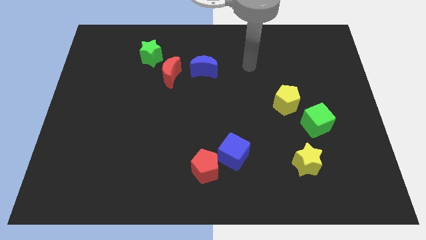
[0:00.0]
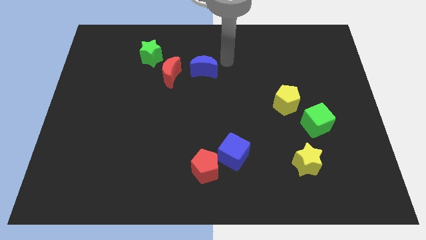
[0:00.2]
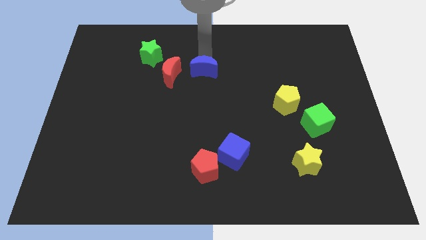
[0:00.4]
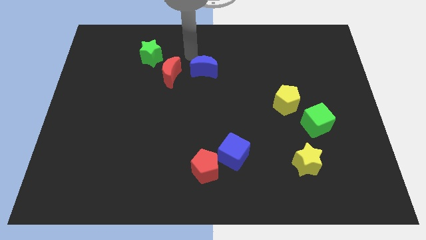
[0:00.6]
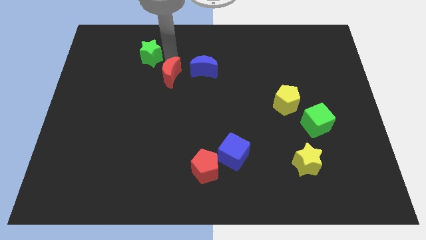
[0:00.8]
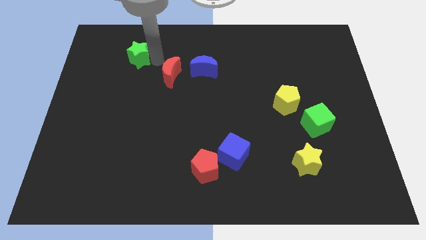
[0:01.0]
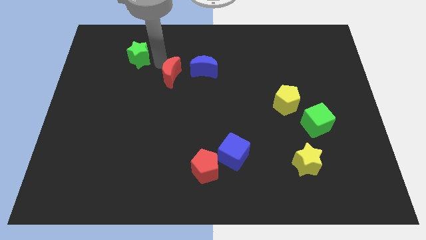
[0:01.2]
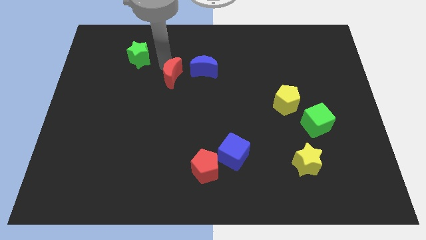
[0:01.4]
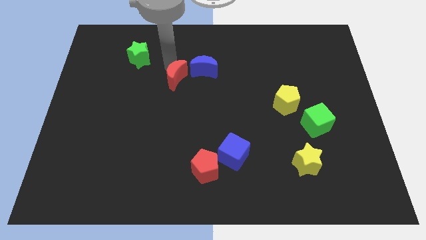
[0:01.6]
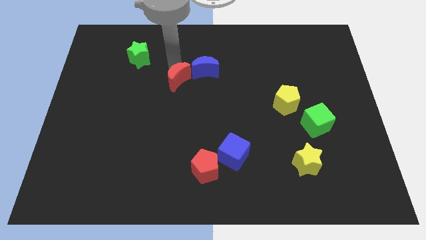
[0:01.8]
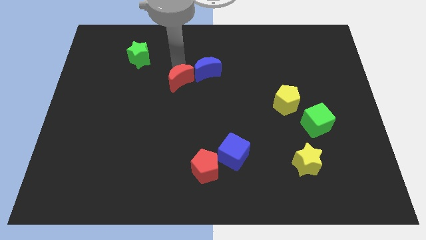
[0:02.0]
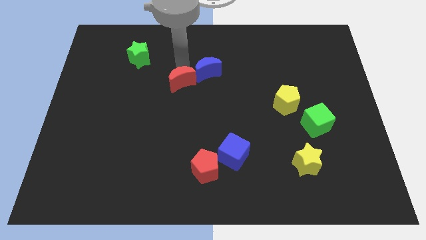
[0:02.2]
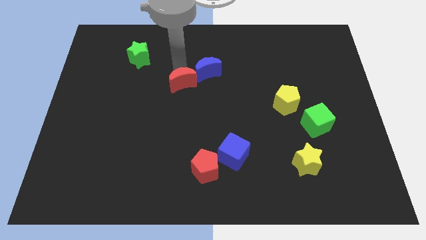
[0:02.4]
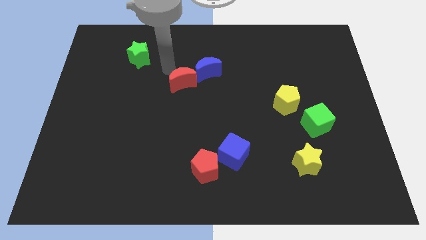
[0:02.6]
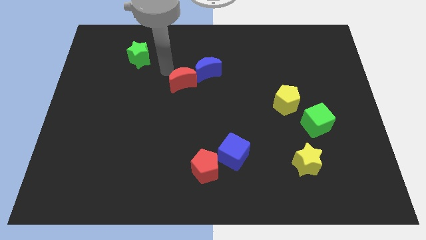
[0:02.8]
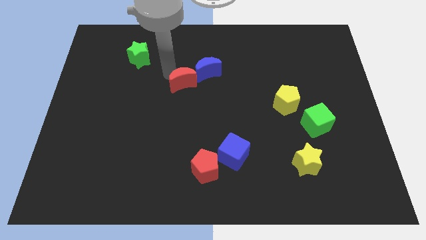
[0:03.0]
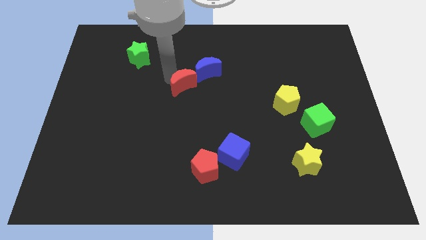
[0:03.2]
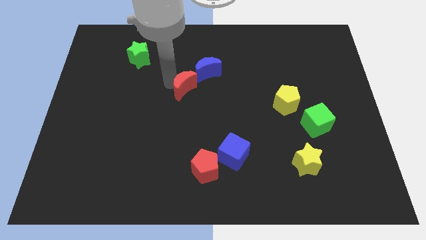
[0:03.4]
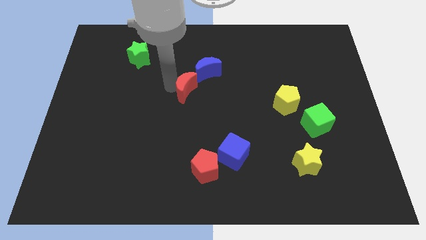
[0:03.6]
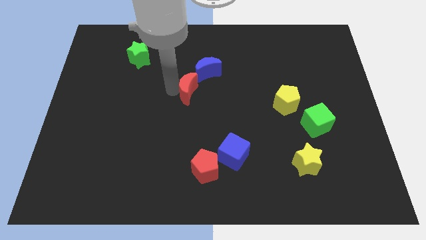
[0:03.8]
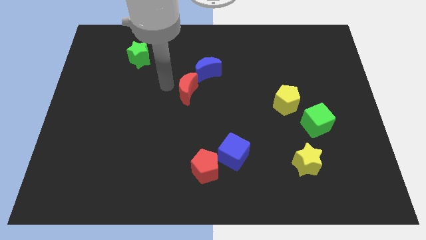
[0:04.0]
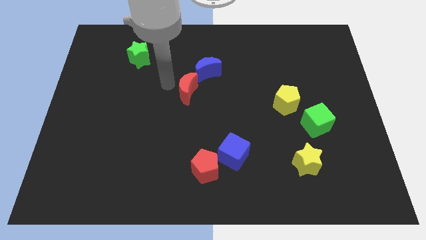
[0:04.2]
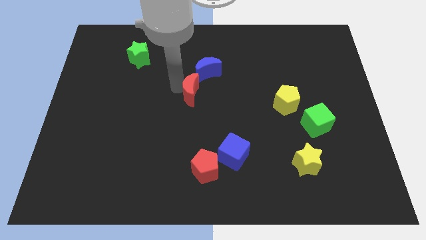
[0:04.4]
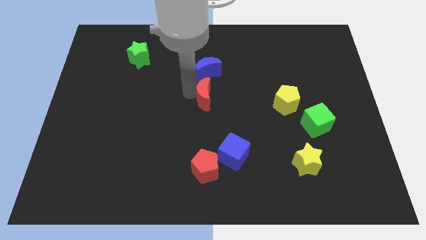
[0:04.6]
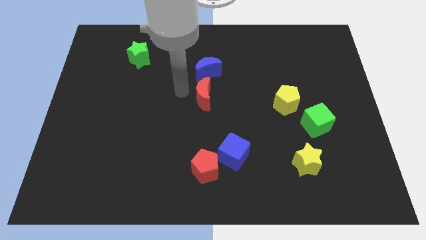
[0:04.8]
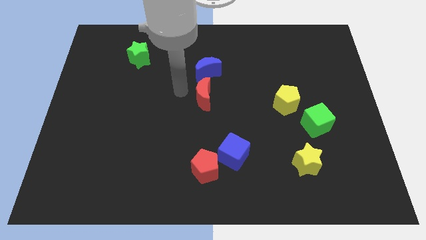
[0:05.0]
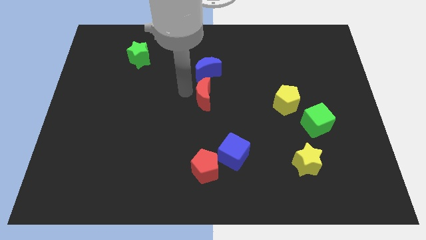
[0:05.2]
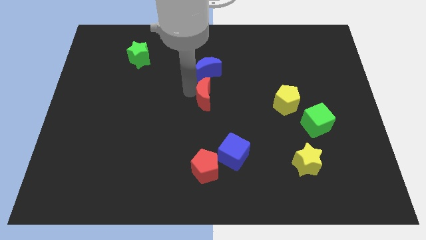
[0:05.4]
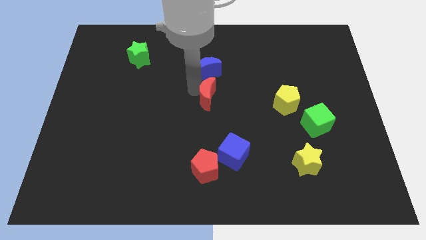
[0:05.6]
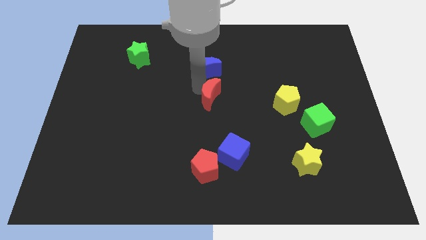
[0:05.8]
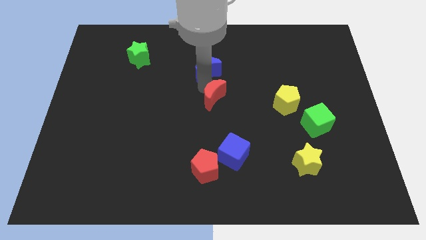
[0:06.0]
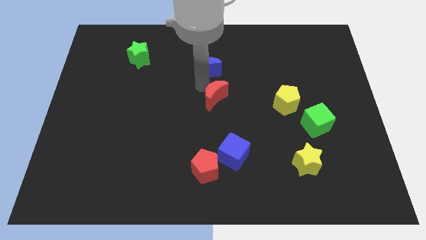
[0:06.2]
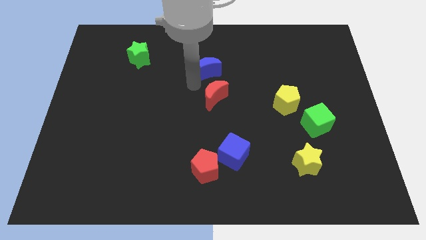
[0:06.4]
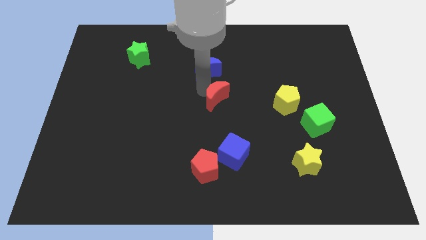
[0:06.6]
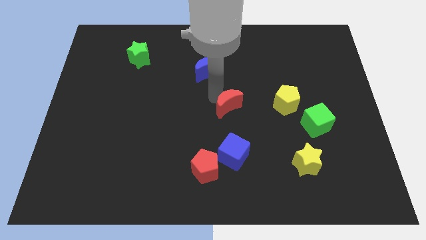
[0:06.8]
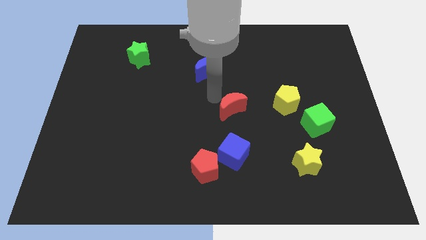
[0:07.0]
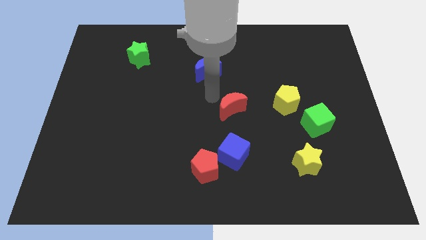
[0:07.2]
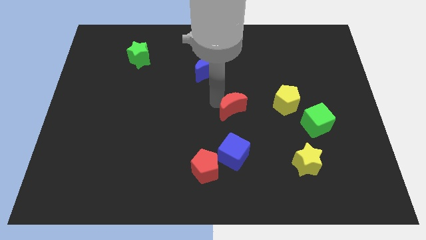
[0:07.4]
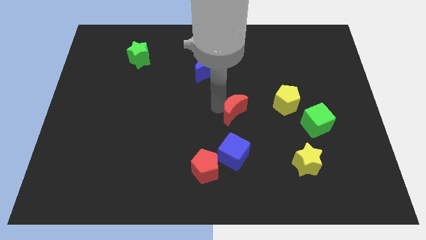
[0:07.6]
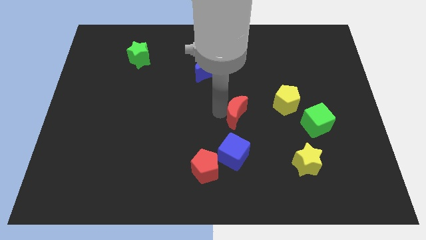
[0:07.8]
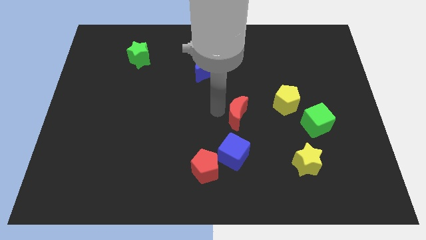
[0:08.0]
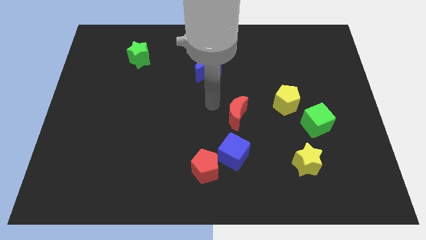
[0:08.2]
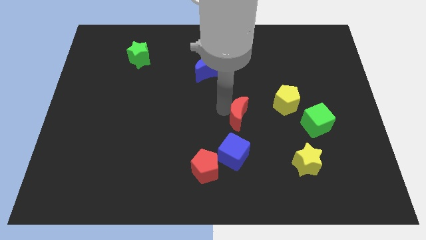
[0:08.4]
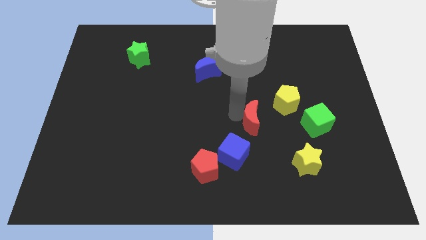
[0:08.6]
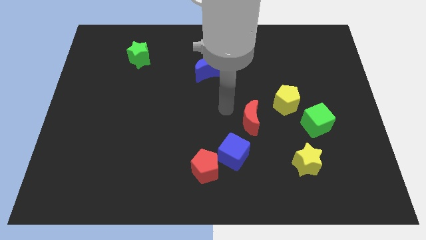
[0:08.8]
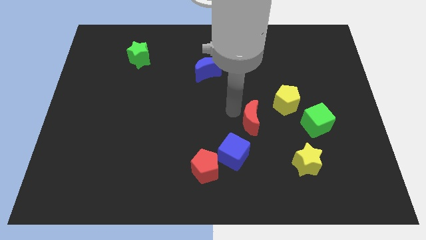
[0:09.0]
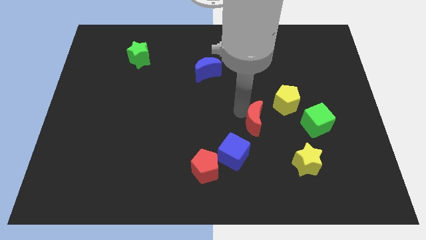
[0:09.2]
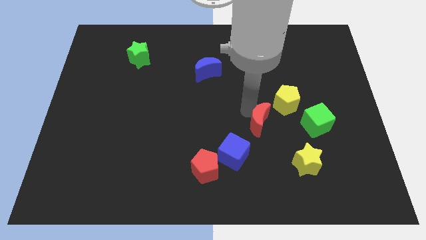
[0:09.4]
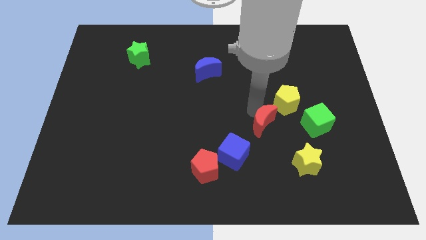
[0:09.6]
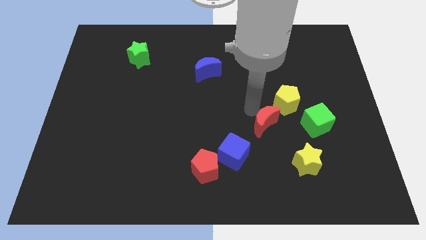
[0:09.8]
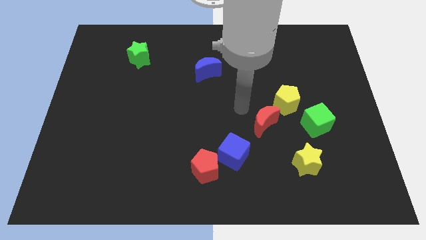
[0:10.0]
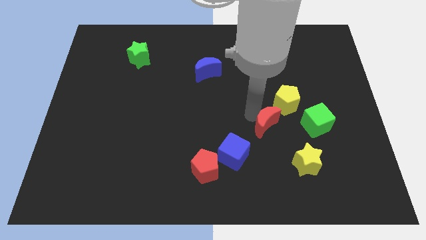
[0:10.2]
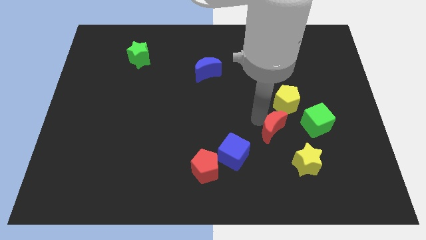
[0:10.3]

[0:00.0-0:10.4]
move the red moon to the bottom of the yellow pentagon

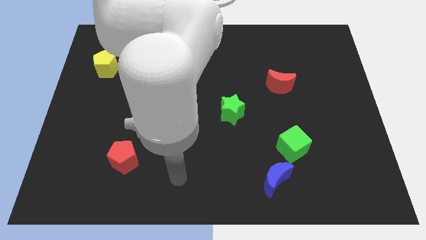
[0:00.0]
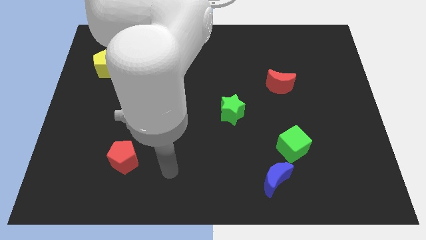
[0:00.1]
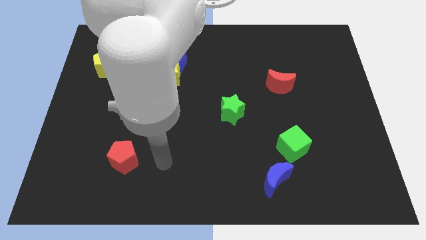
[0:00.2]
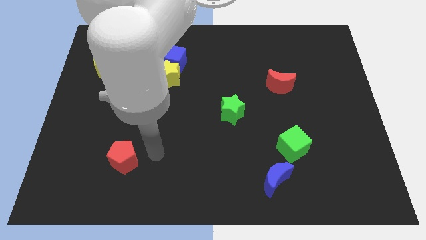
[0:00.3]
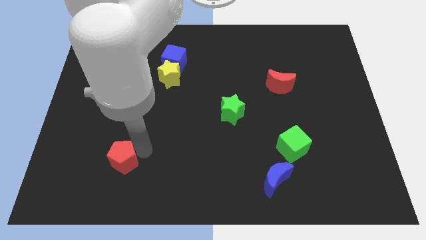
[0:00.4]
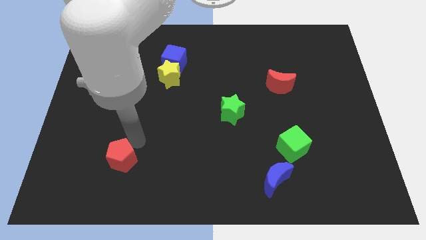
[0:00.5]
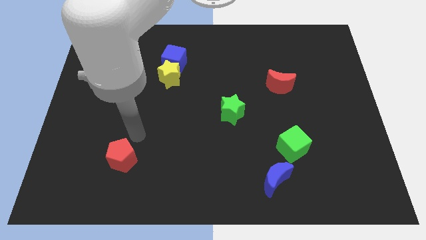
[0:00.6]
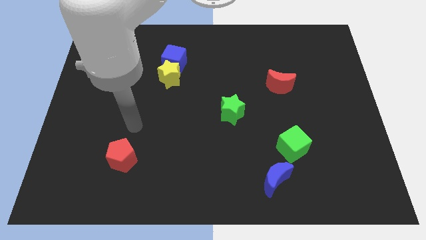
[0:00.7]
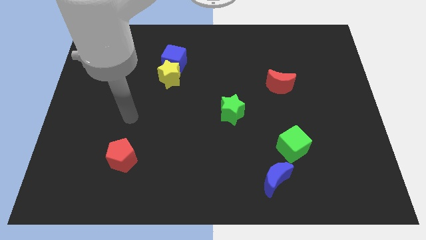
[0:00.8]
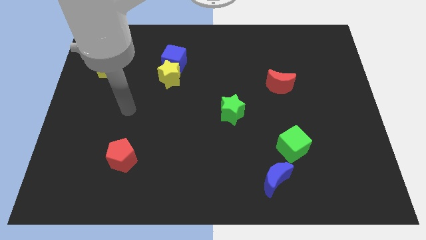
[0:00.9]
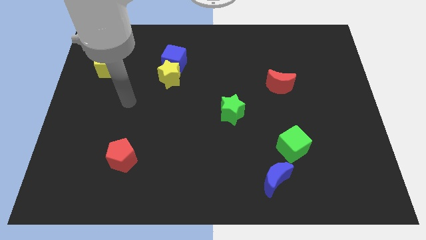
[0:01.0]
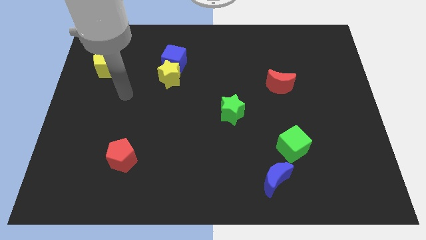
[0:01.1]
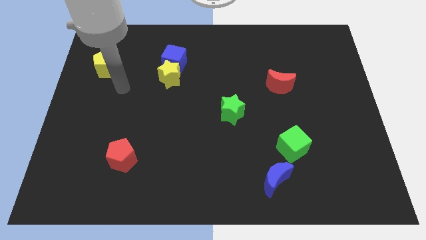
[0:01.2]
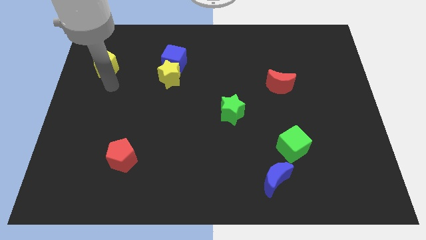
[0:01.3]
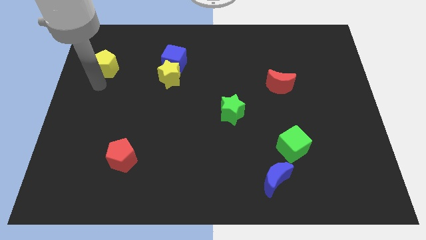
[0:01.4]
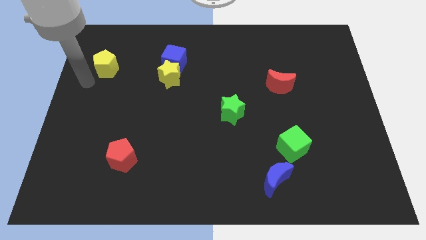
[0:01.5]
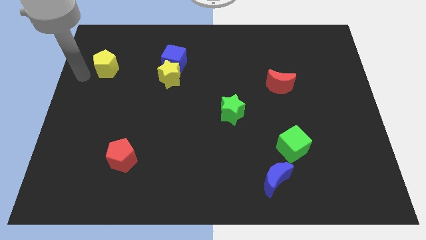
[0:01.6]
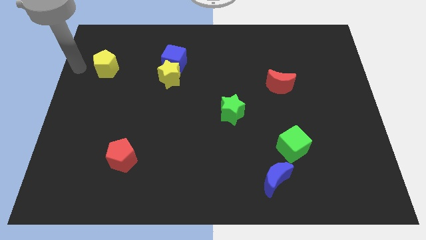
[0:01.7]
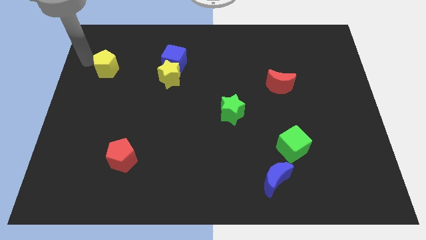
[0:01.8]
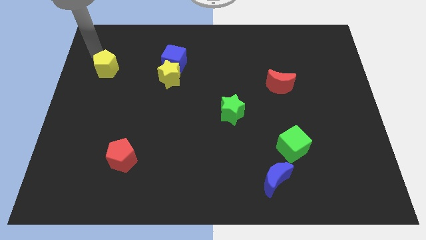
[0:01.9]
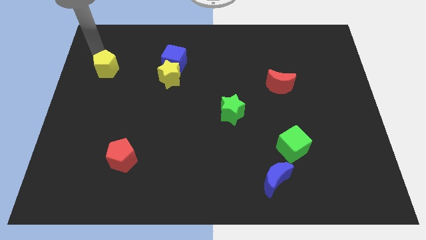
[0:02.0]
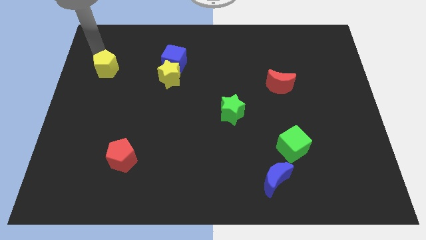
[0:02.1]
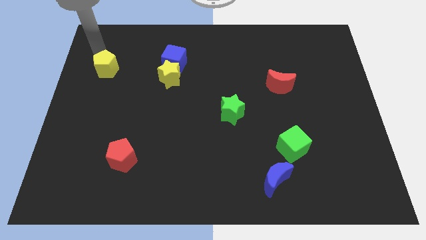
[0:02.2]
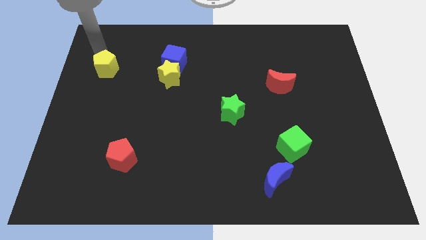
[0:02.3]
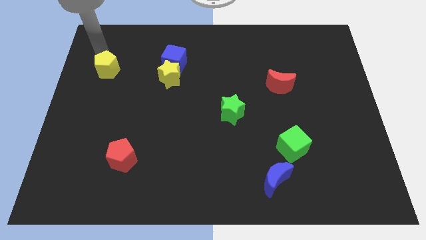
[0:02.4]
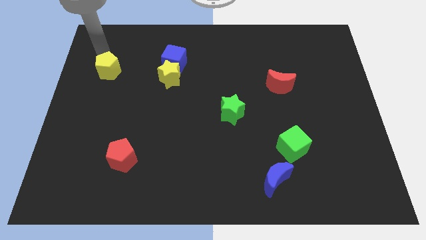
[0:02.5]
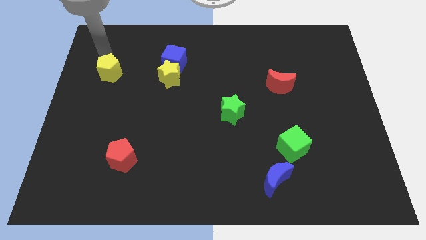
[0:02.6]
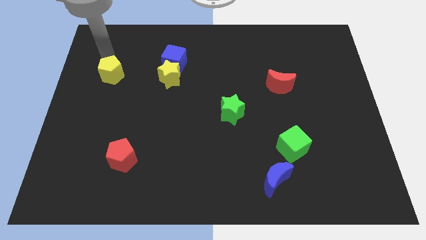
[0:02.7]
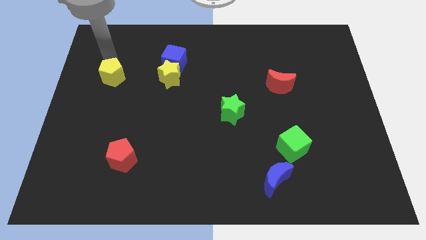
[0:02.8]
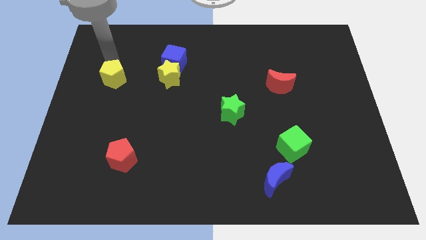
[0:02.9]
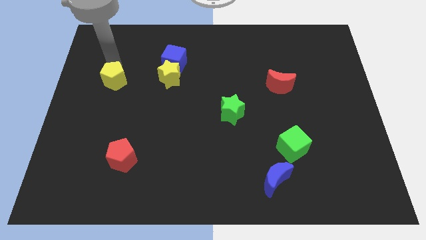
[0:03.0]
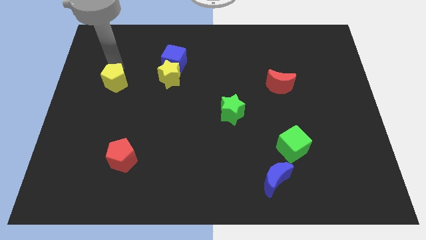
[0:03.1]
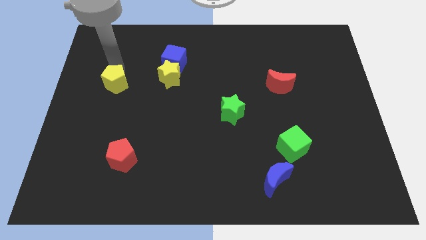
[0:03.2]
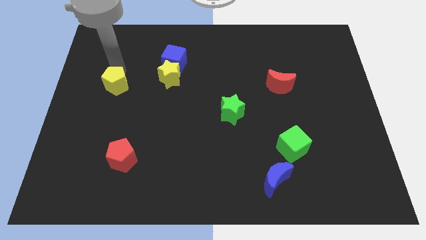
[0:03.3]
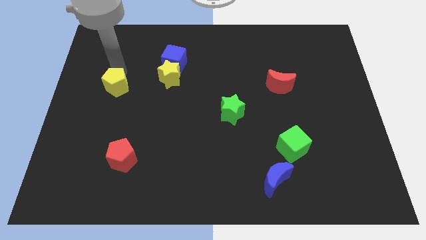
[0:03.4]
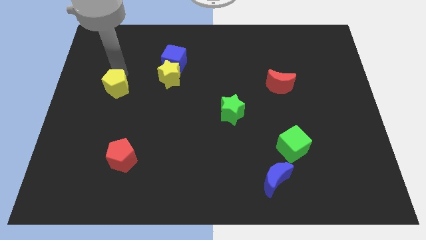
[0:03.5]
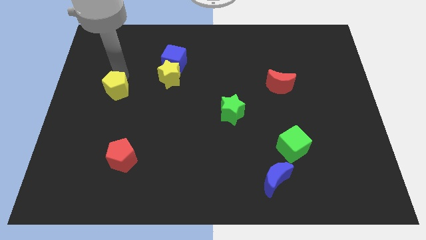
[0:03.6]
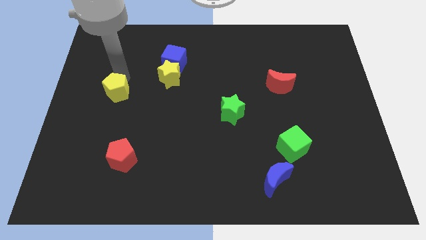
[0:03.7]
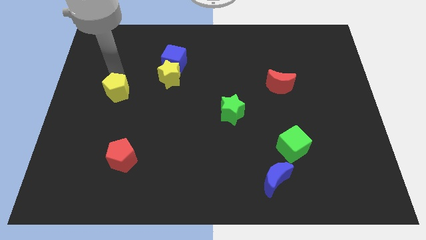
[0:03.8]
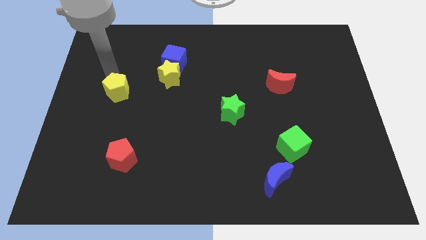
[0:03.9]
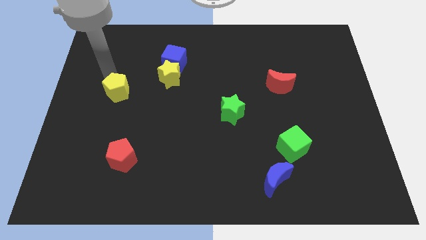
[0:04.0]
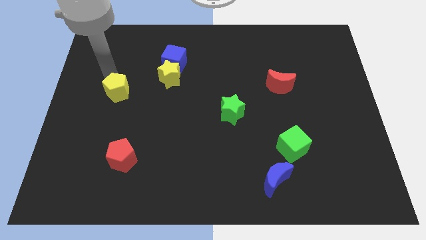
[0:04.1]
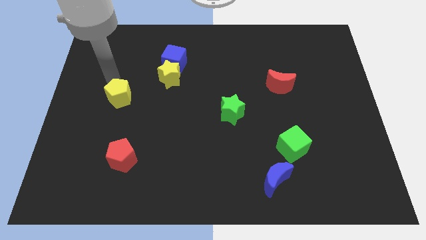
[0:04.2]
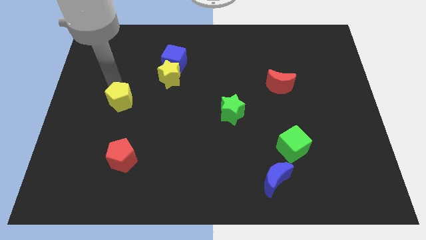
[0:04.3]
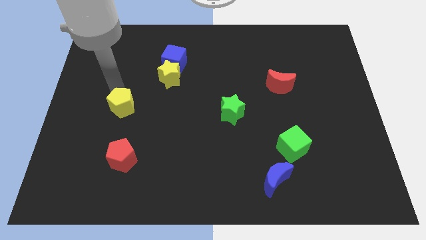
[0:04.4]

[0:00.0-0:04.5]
slide the yellow pentagon to the top side of the red pentagon
